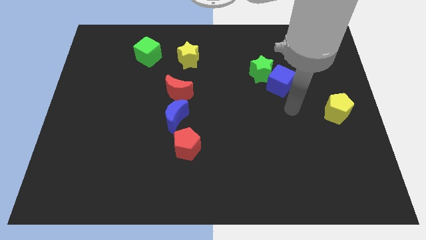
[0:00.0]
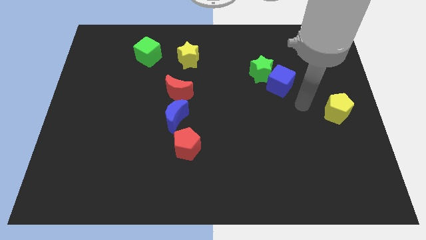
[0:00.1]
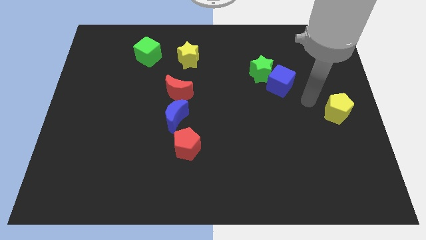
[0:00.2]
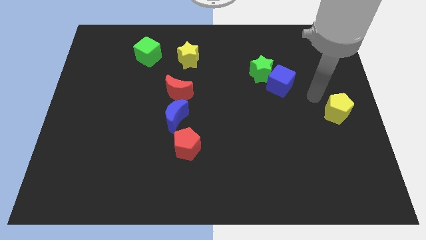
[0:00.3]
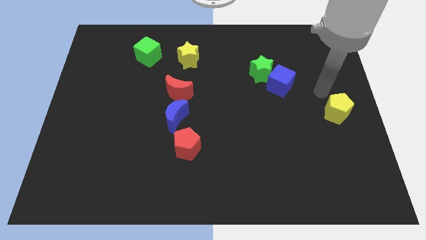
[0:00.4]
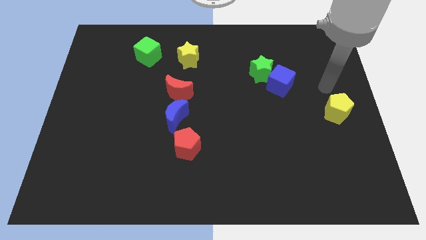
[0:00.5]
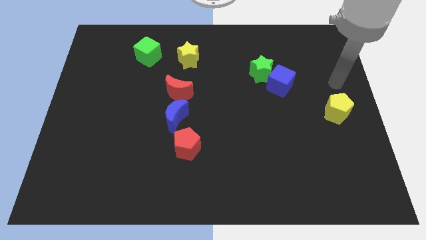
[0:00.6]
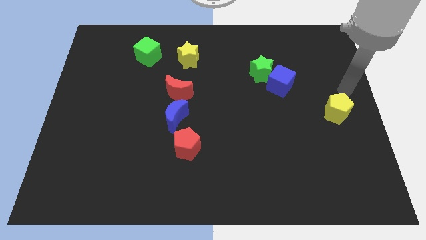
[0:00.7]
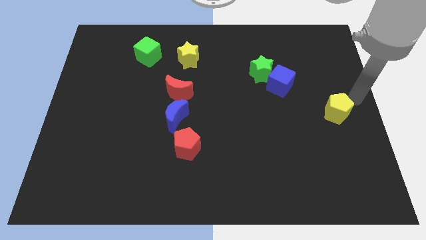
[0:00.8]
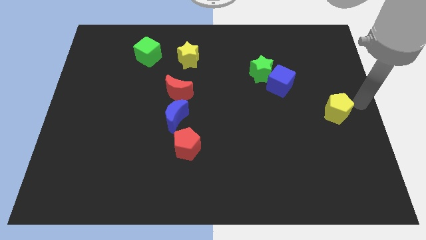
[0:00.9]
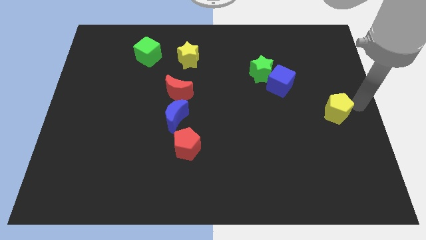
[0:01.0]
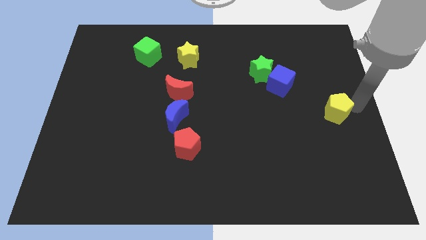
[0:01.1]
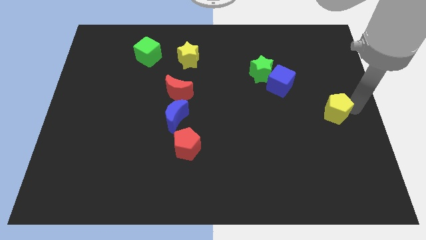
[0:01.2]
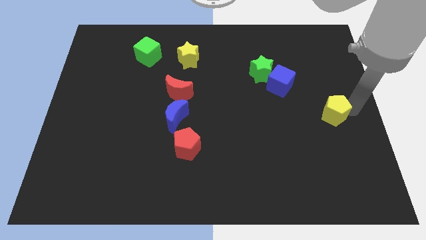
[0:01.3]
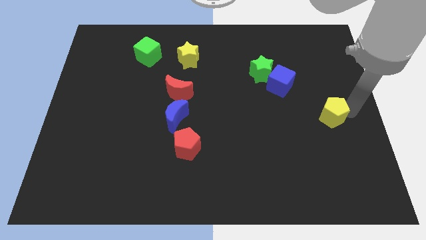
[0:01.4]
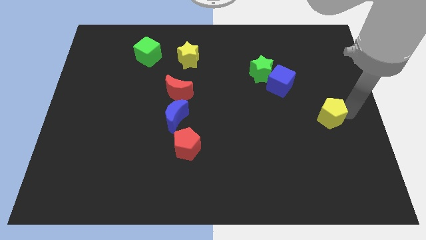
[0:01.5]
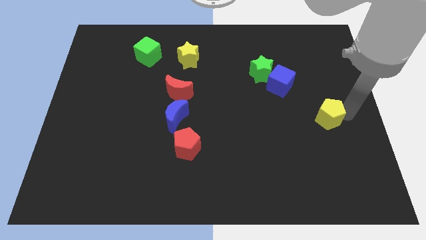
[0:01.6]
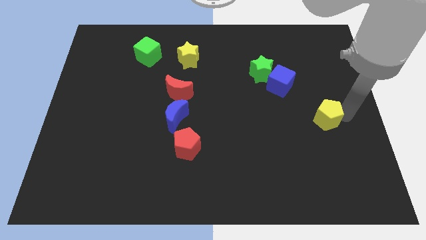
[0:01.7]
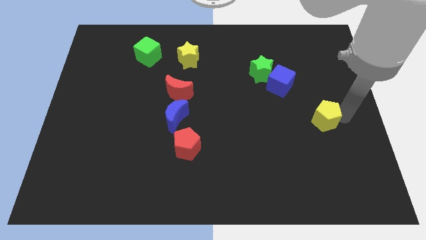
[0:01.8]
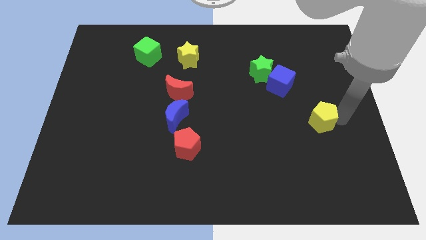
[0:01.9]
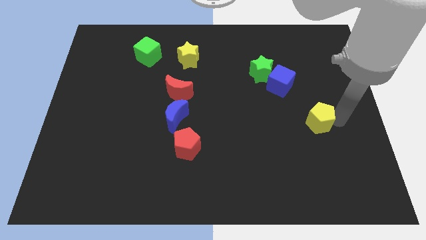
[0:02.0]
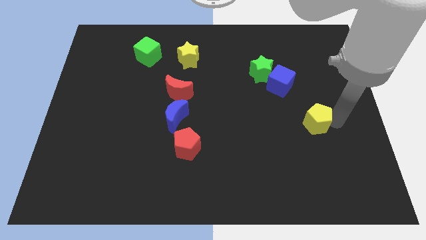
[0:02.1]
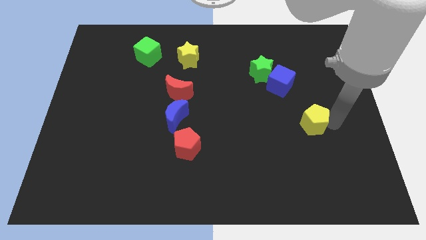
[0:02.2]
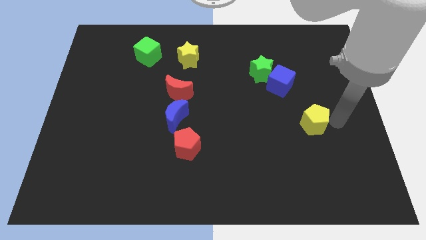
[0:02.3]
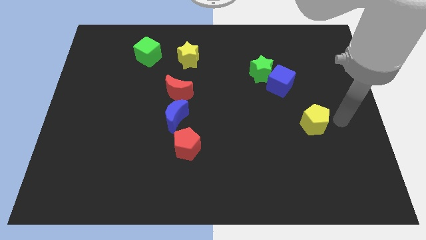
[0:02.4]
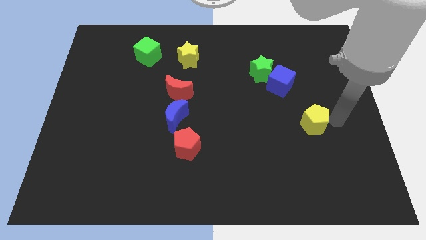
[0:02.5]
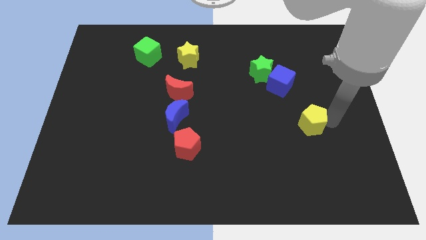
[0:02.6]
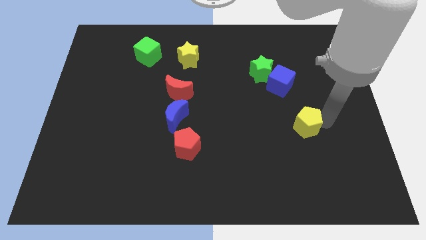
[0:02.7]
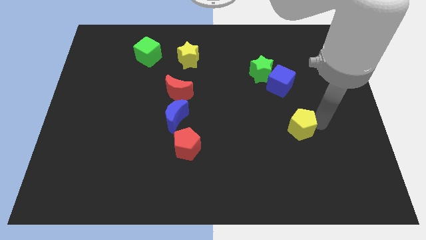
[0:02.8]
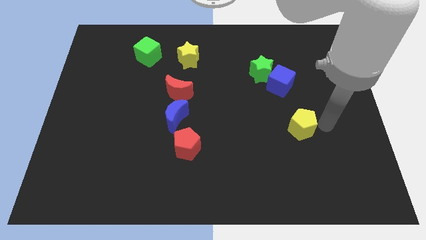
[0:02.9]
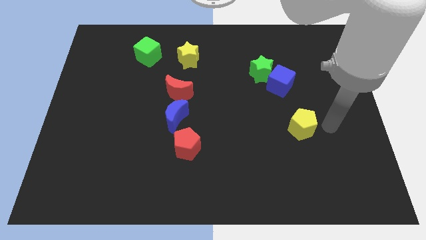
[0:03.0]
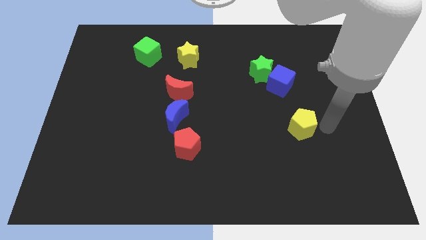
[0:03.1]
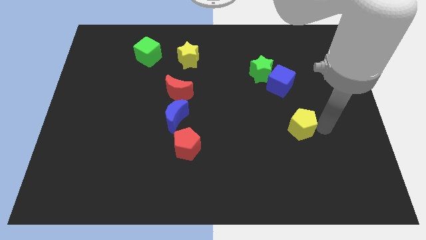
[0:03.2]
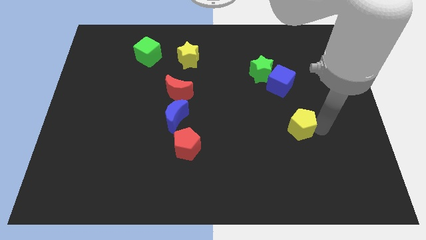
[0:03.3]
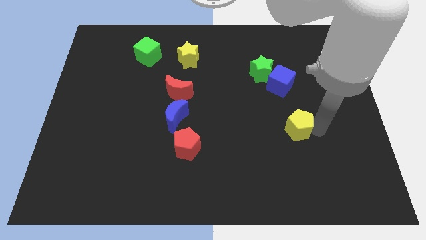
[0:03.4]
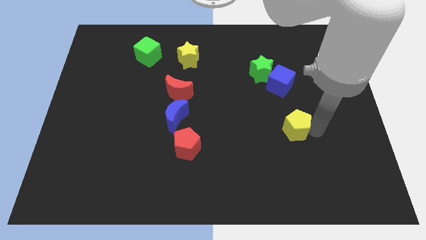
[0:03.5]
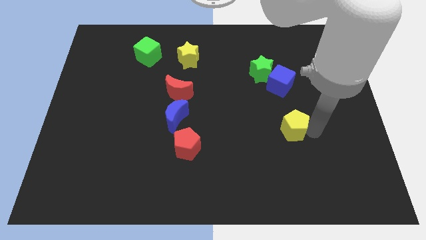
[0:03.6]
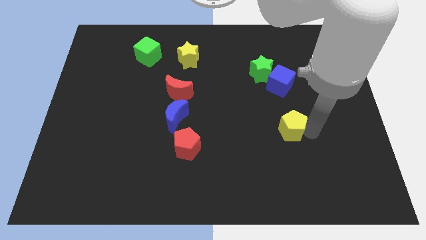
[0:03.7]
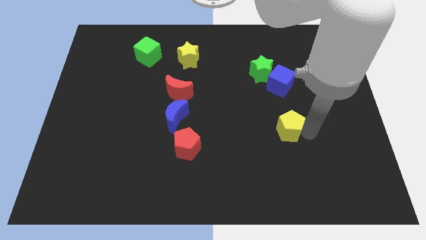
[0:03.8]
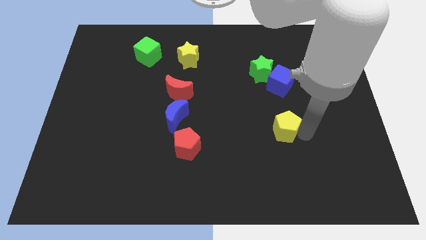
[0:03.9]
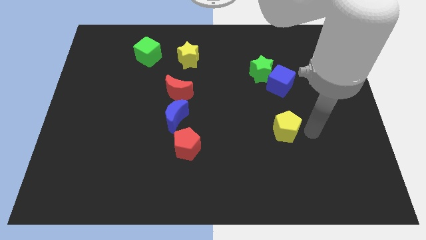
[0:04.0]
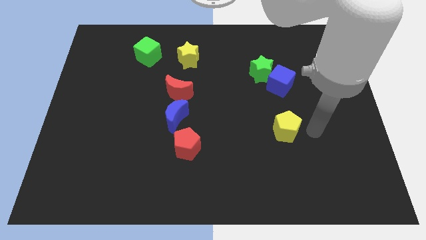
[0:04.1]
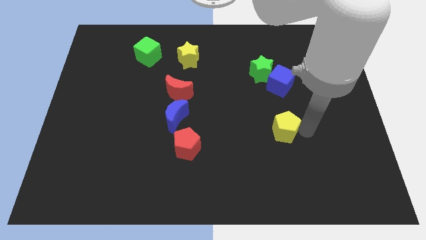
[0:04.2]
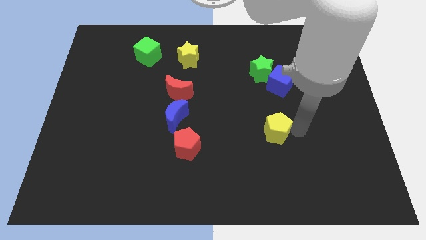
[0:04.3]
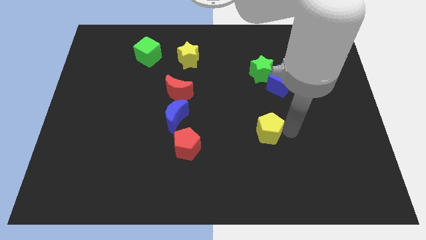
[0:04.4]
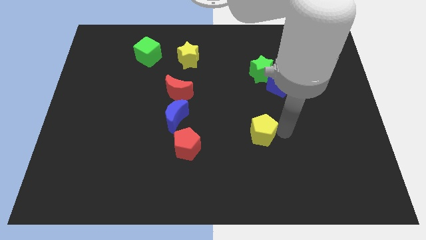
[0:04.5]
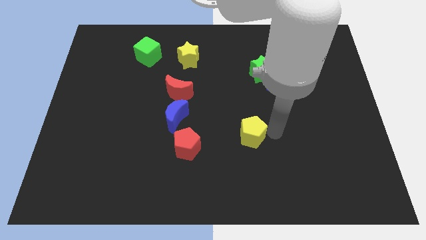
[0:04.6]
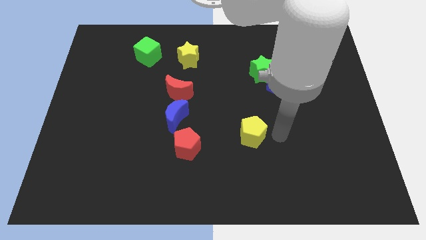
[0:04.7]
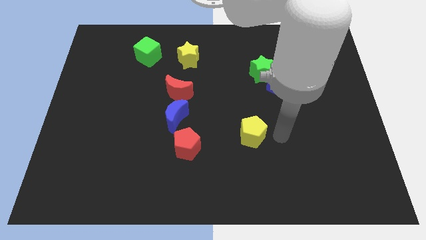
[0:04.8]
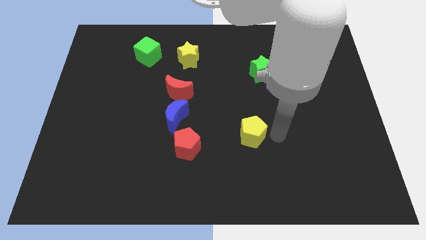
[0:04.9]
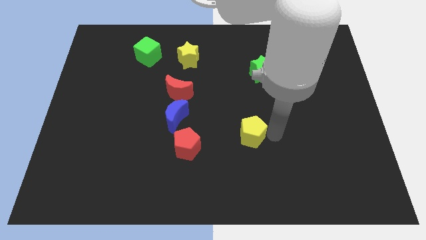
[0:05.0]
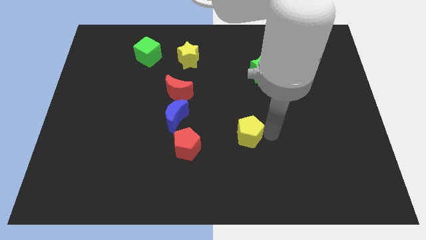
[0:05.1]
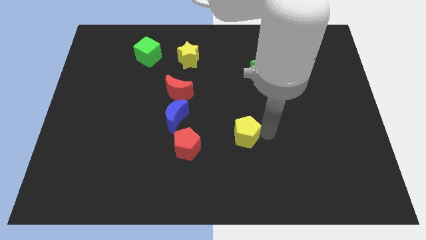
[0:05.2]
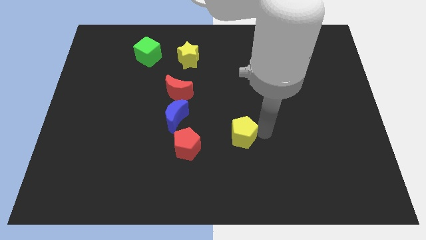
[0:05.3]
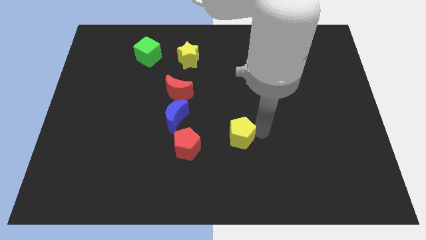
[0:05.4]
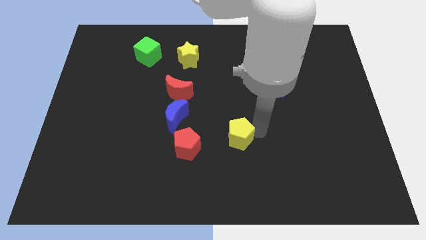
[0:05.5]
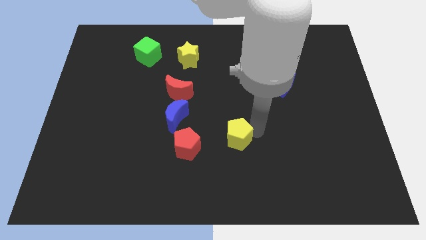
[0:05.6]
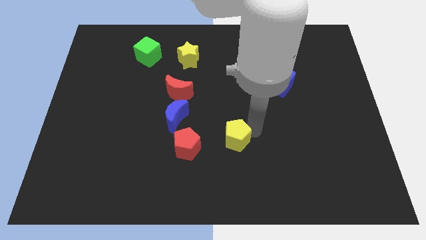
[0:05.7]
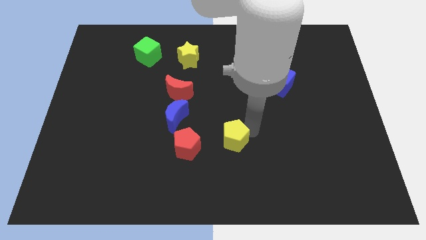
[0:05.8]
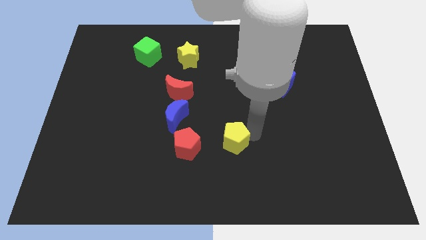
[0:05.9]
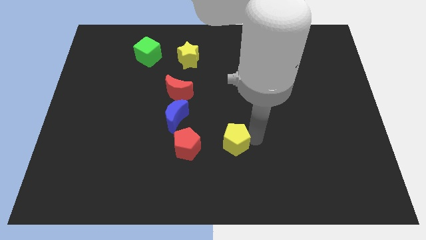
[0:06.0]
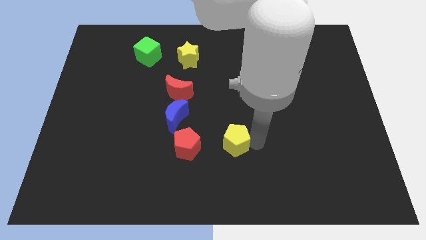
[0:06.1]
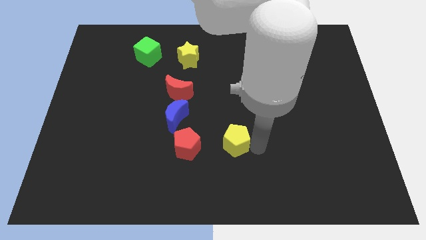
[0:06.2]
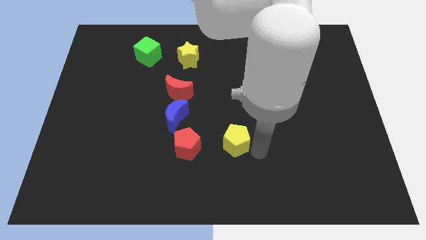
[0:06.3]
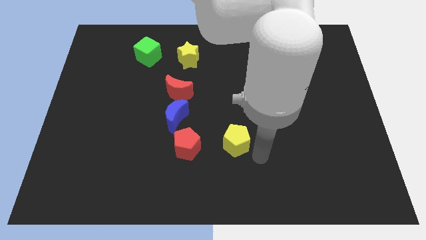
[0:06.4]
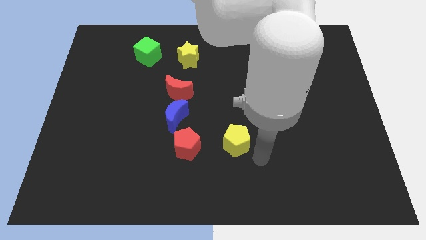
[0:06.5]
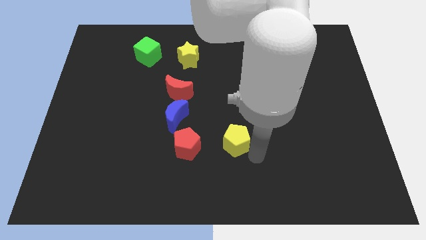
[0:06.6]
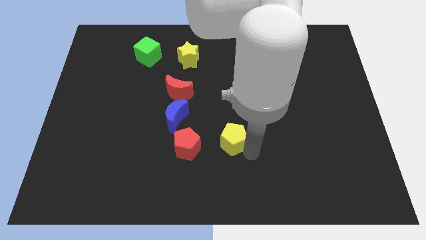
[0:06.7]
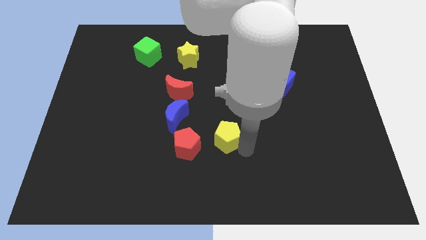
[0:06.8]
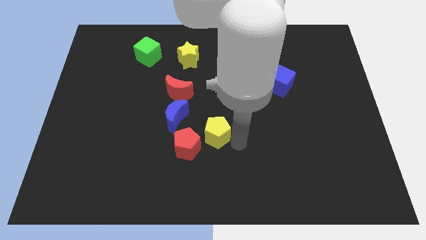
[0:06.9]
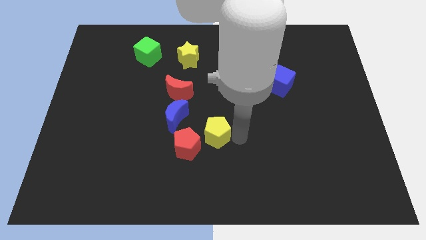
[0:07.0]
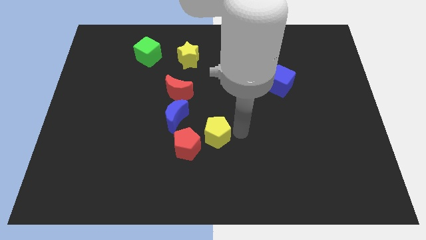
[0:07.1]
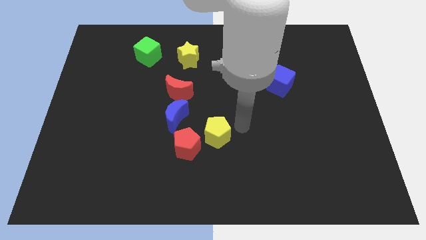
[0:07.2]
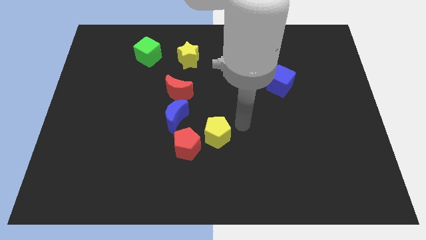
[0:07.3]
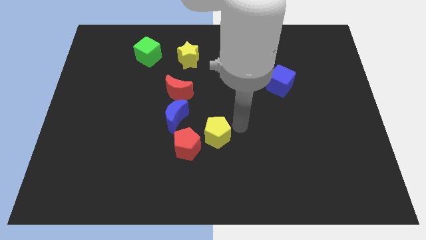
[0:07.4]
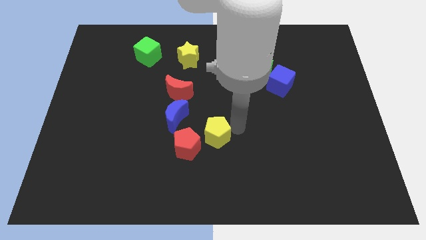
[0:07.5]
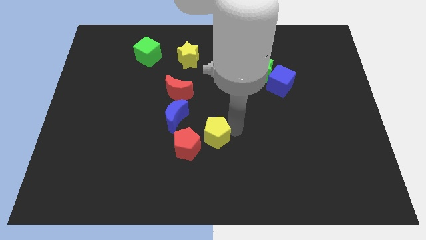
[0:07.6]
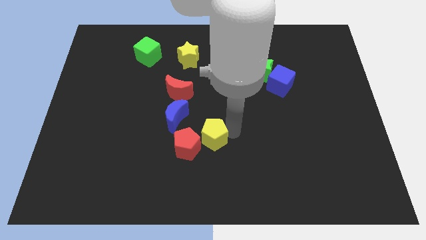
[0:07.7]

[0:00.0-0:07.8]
slide the yellow pentagon close to the red pentagon
